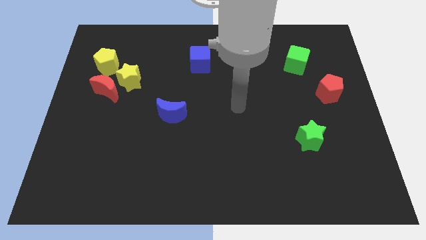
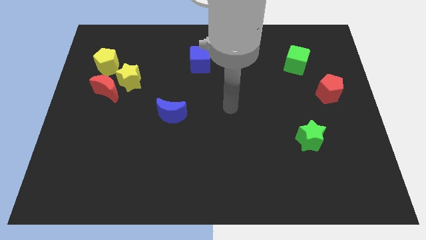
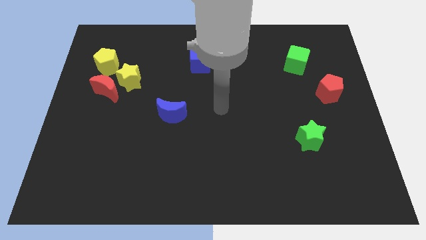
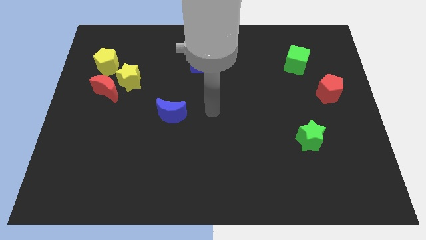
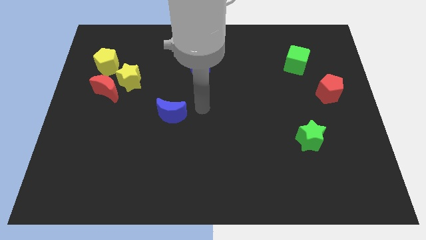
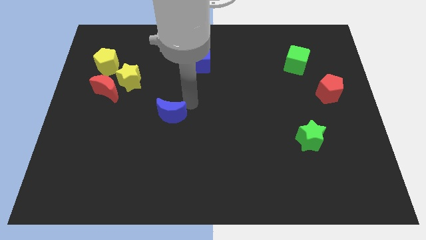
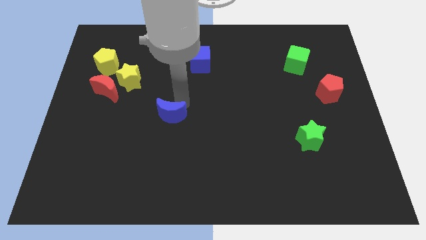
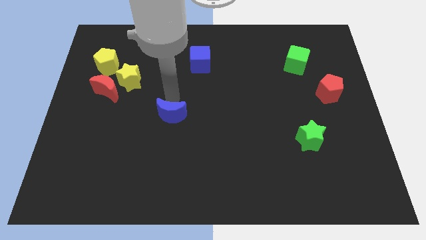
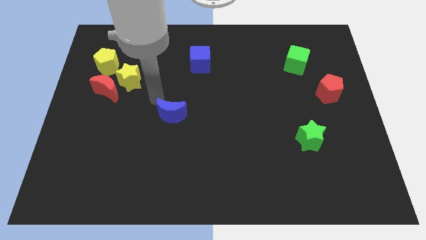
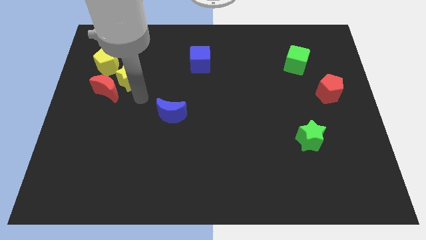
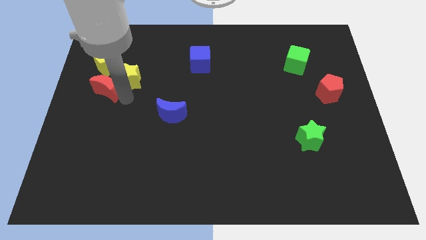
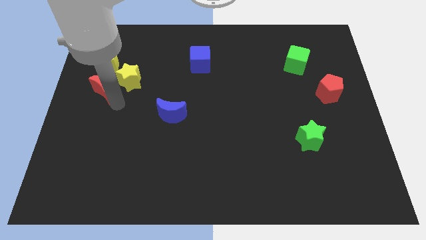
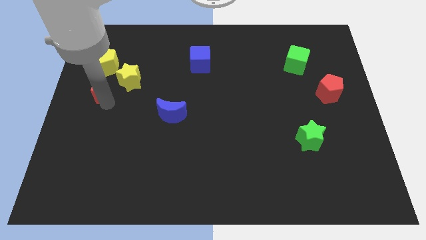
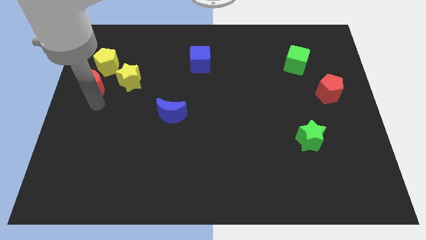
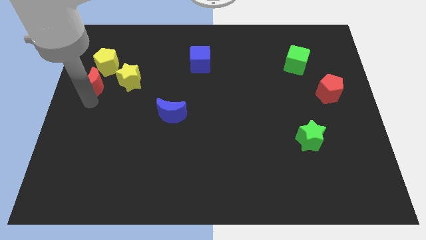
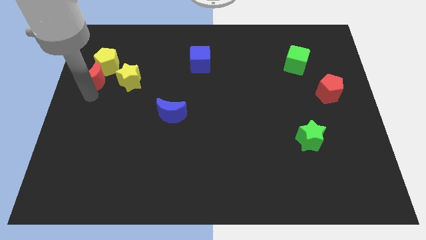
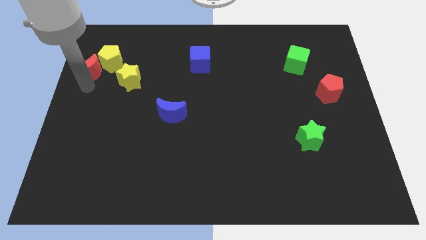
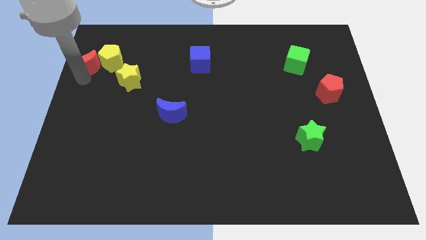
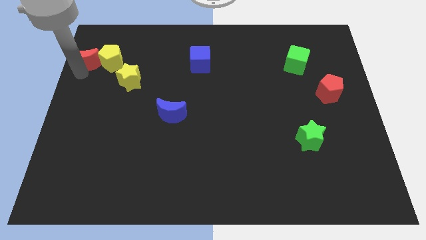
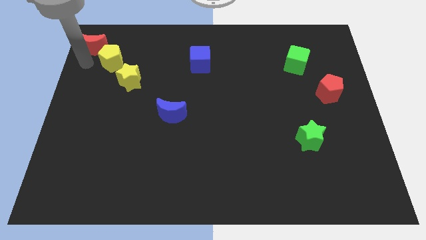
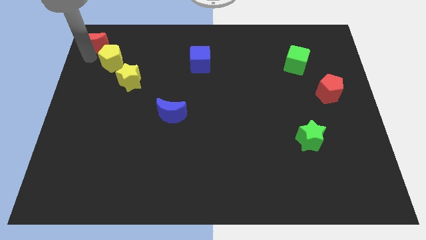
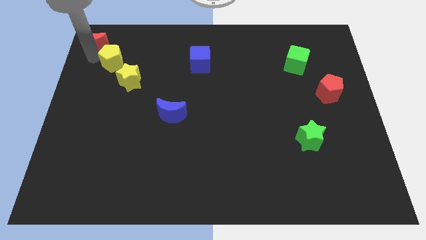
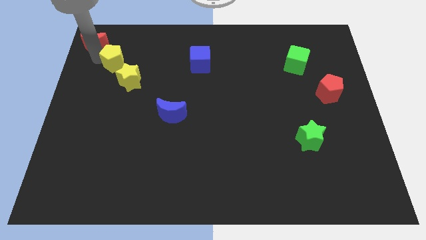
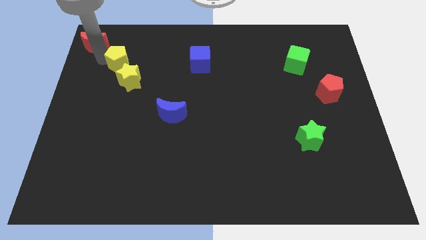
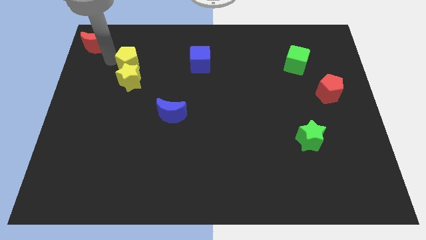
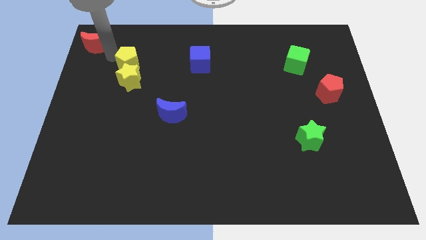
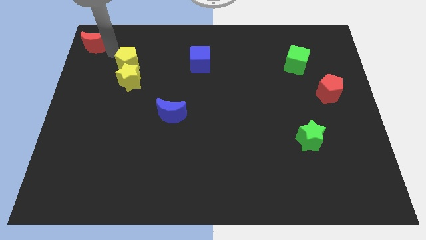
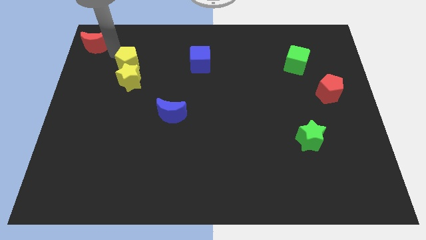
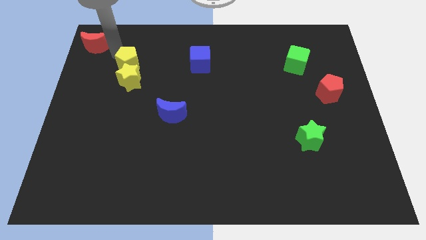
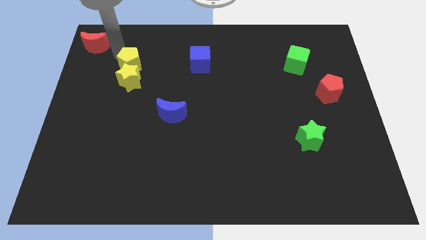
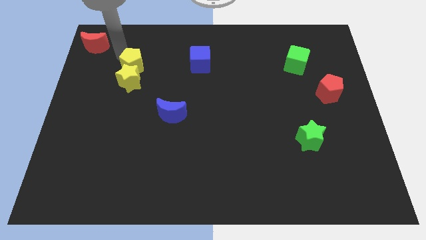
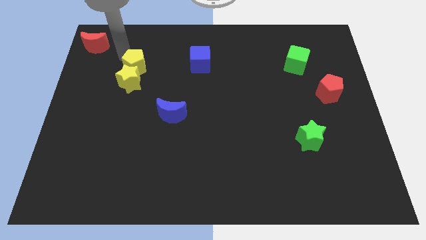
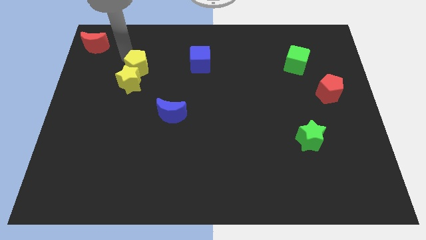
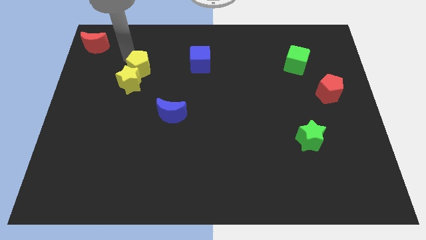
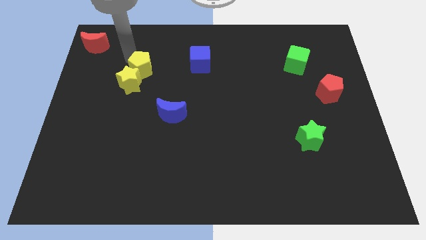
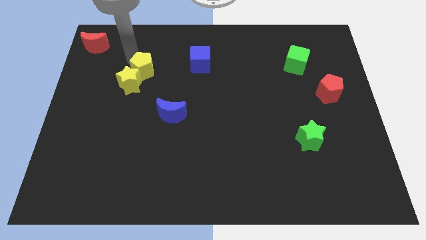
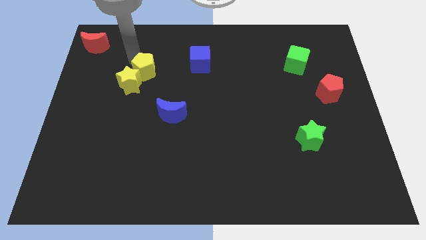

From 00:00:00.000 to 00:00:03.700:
push the yellow pentagon slightly down and right

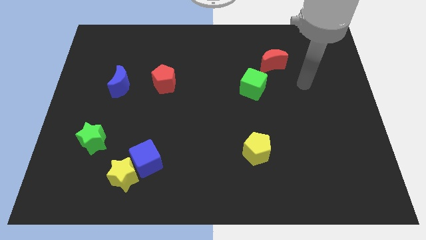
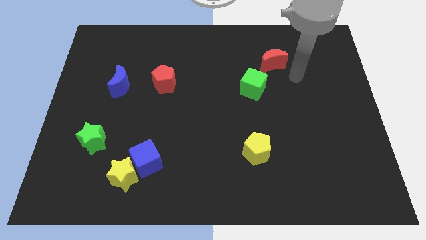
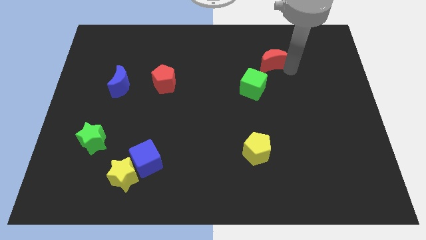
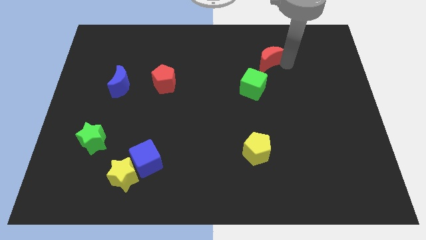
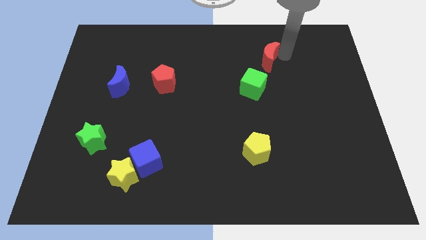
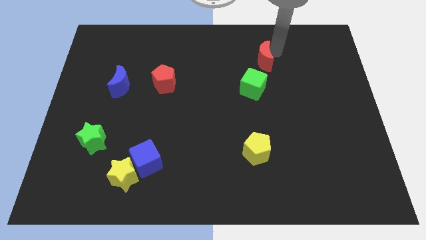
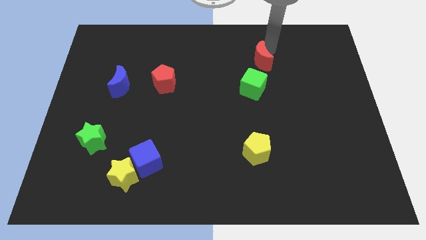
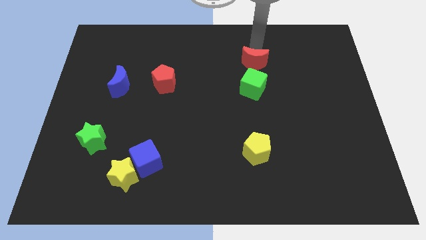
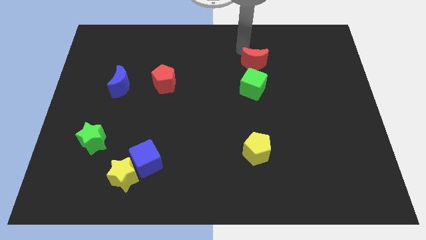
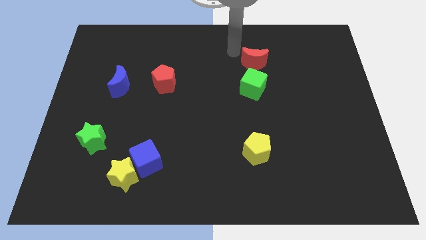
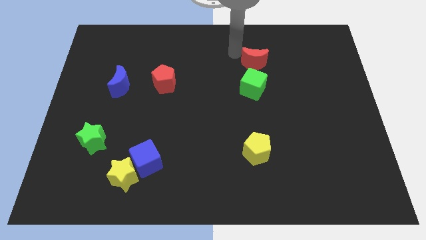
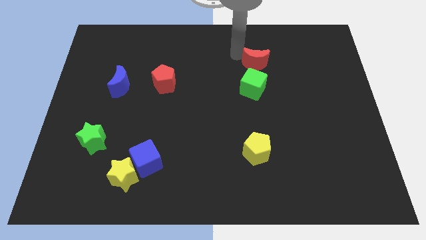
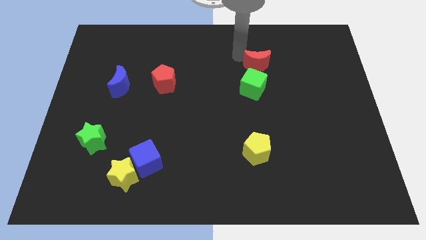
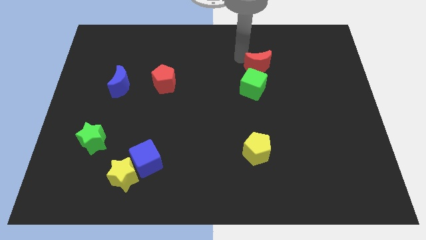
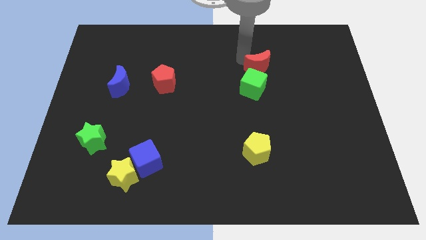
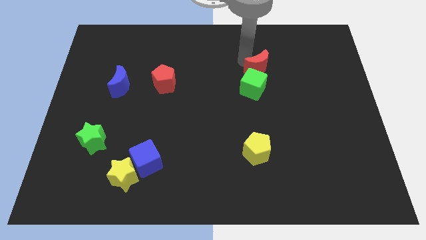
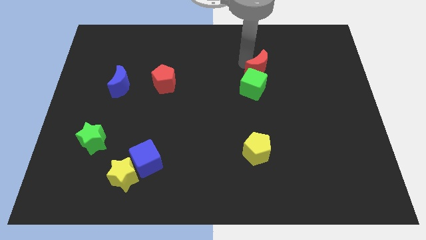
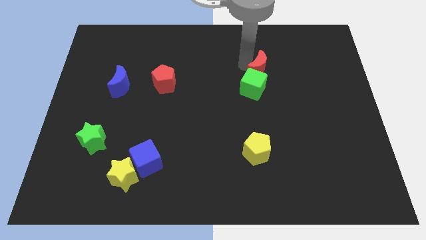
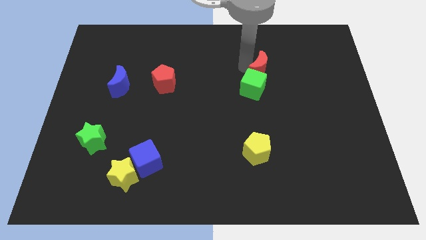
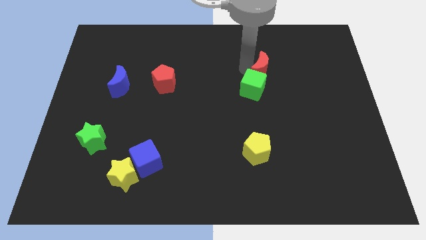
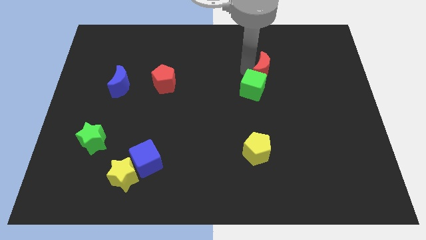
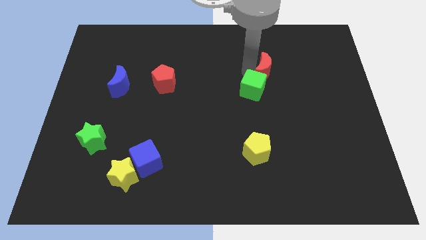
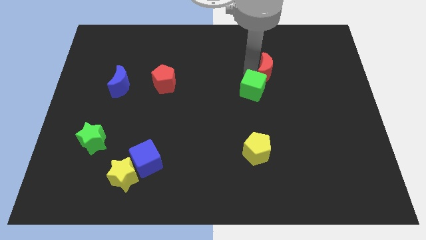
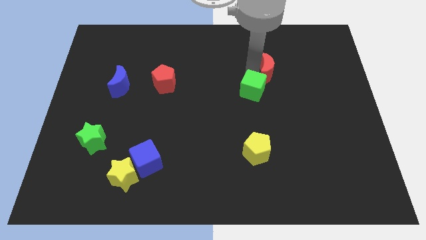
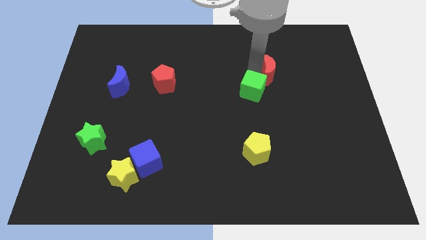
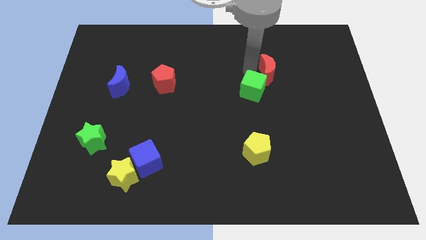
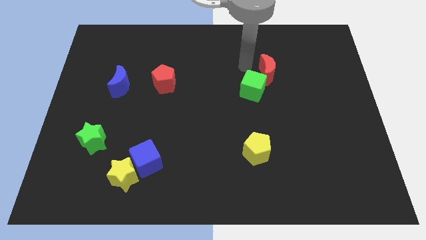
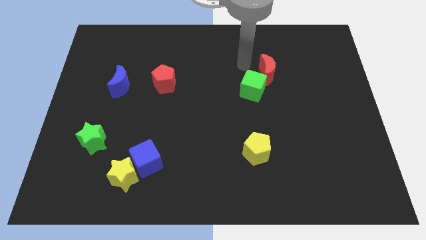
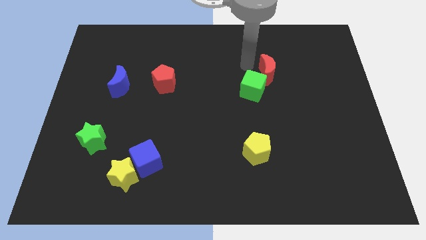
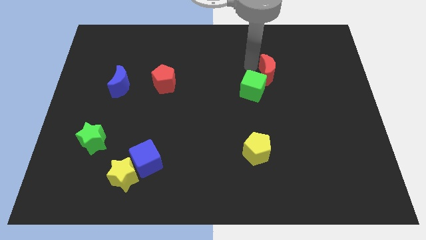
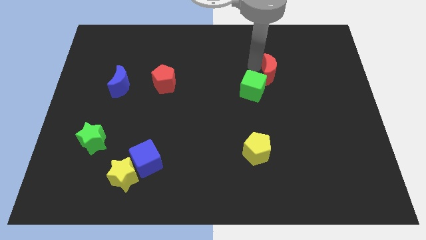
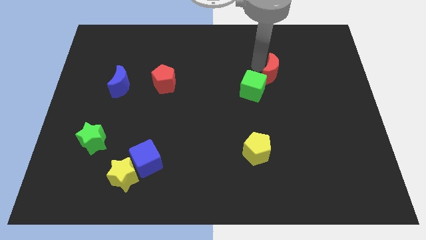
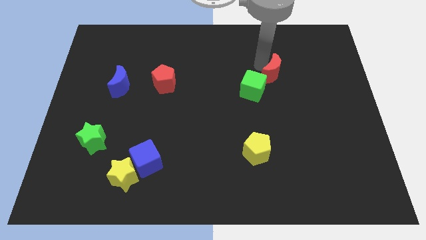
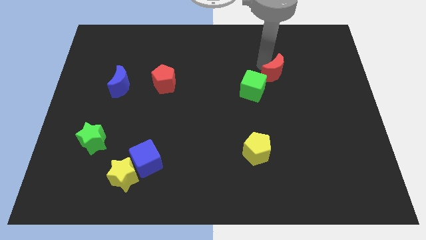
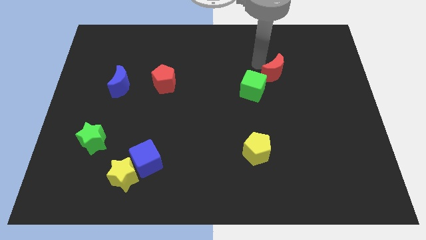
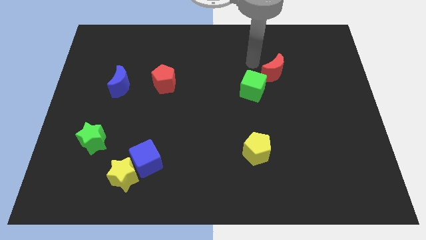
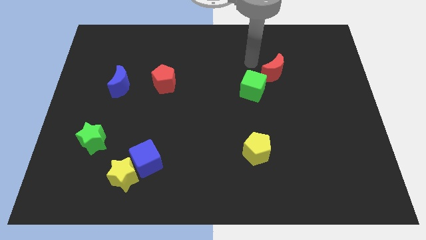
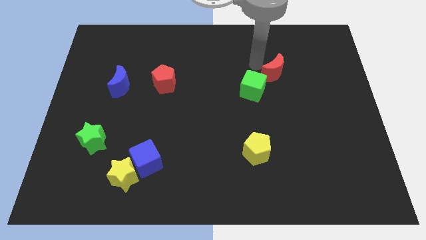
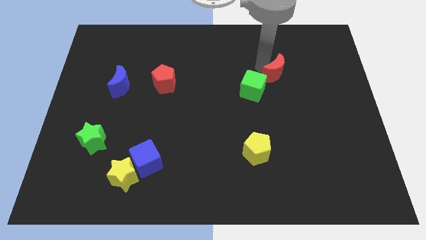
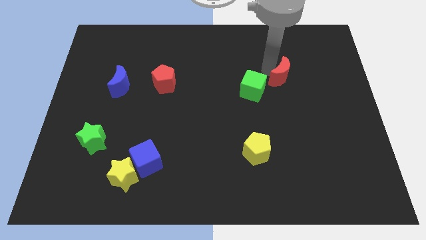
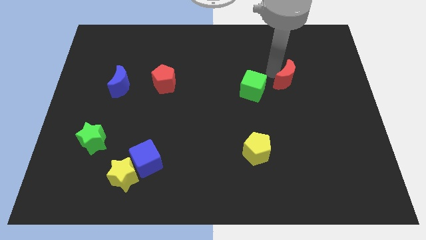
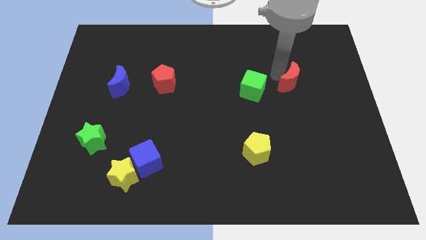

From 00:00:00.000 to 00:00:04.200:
slightly move the red moon downwards and then to the right

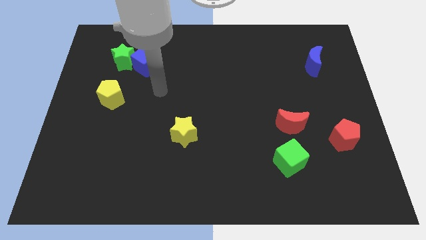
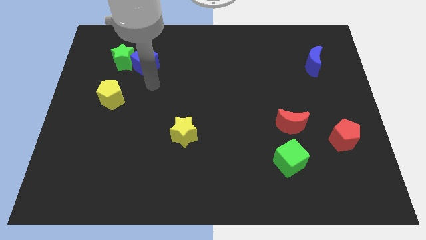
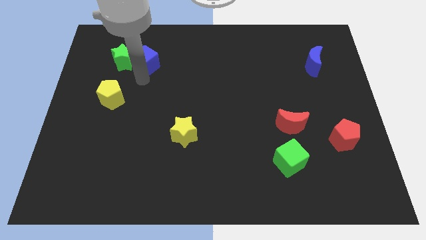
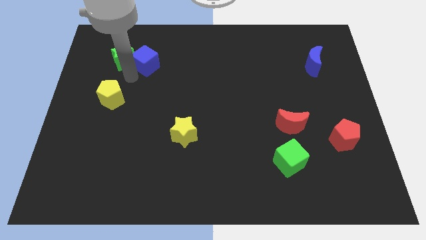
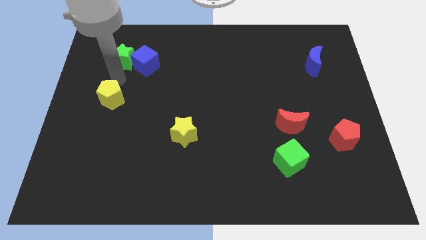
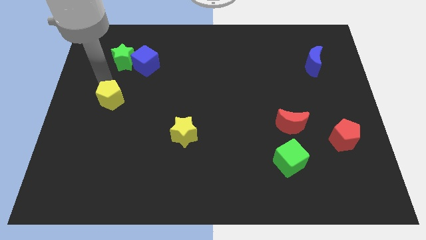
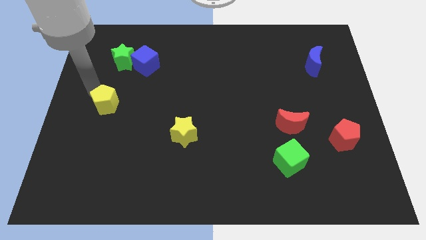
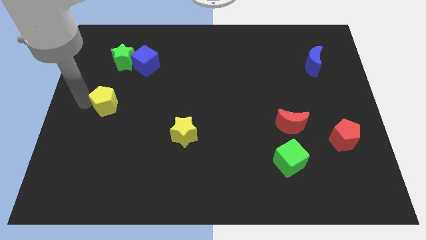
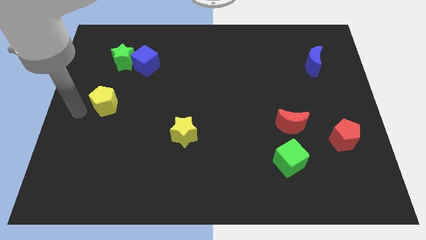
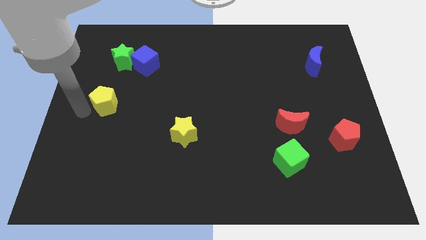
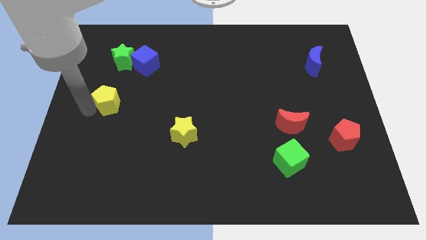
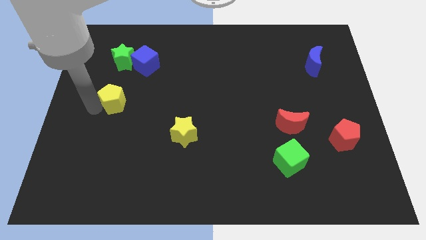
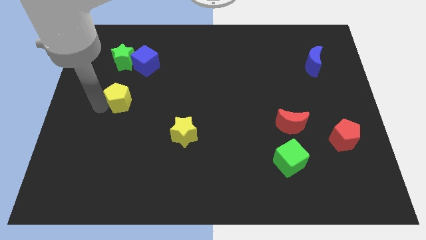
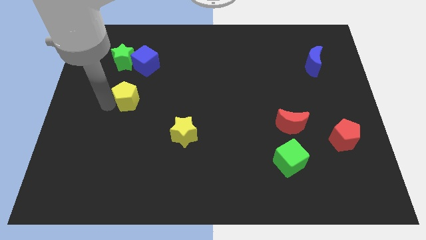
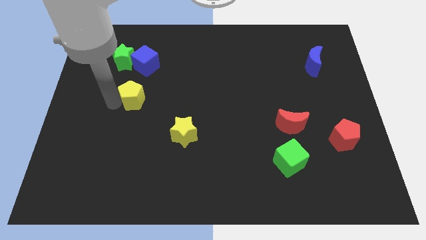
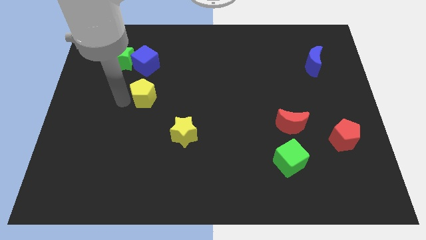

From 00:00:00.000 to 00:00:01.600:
push the yellow pentagon a little bit to the right
